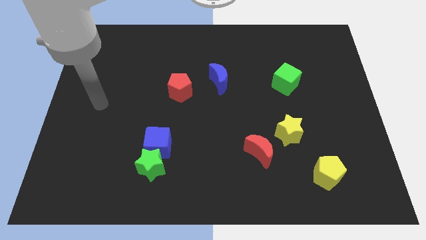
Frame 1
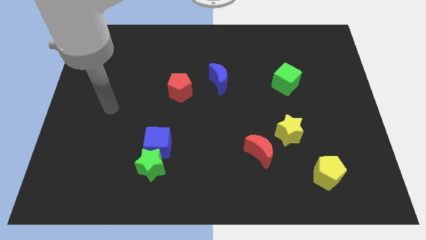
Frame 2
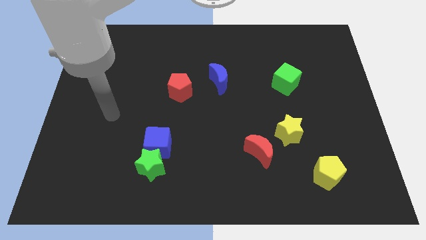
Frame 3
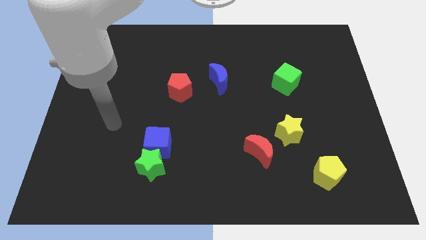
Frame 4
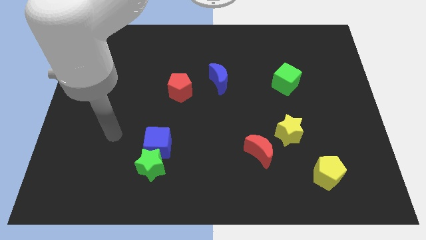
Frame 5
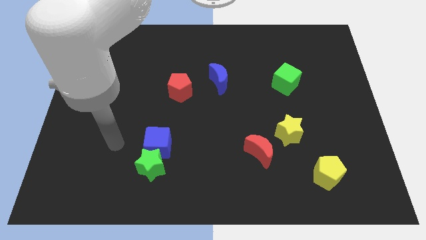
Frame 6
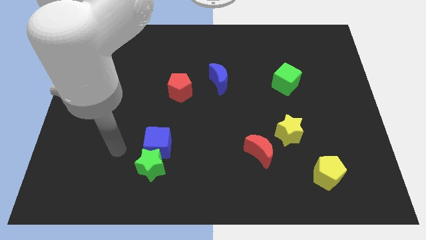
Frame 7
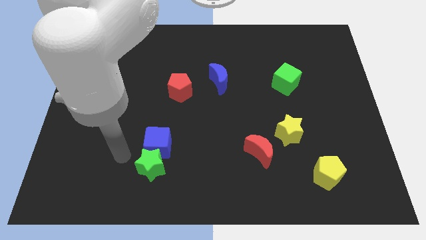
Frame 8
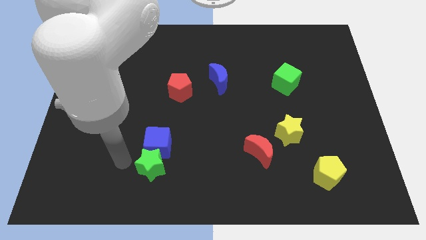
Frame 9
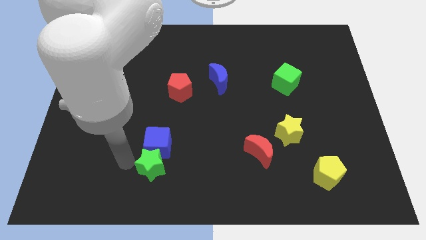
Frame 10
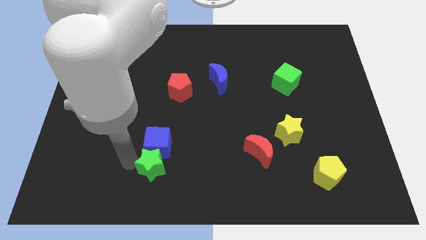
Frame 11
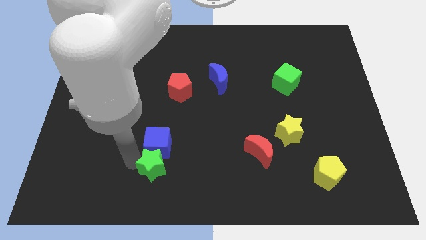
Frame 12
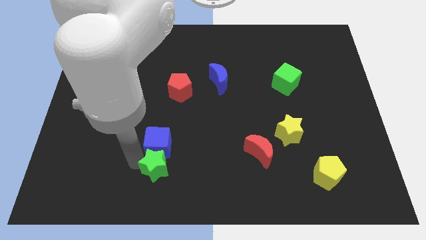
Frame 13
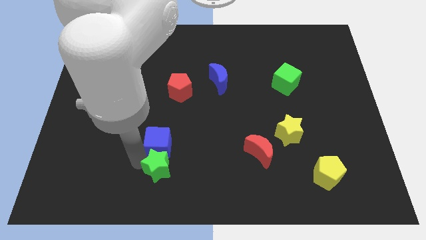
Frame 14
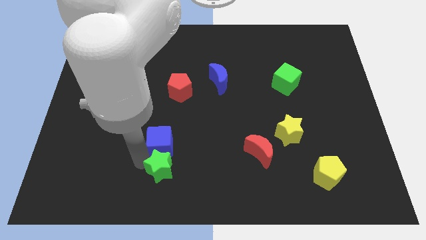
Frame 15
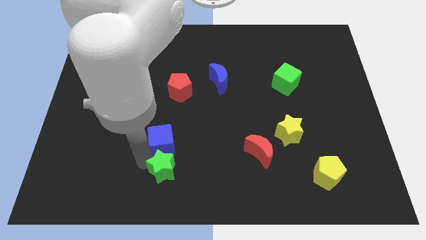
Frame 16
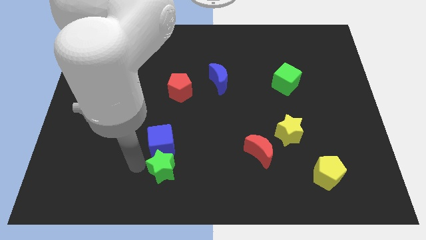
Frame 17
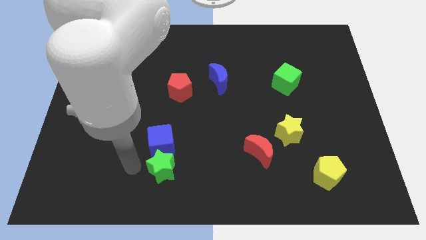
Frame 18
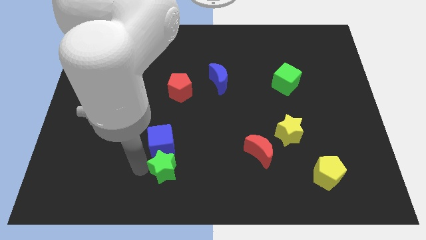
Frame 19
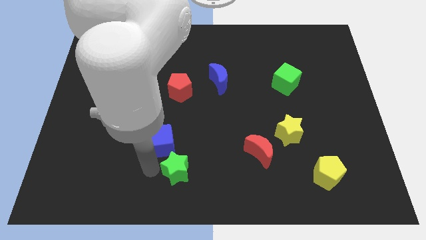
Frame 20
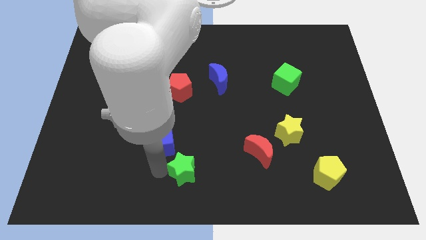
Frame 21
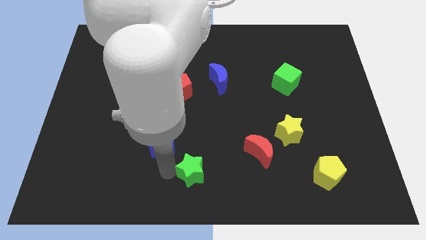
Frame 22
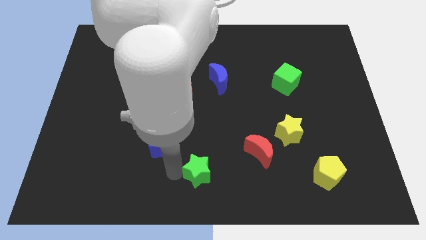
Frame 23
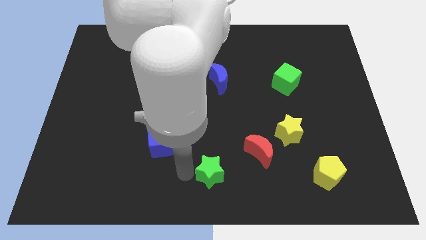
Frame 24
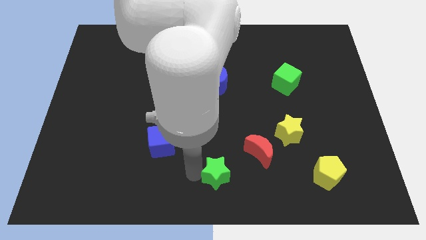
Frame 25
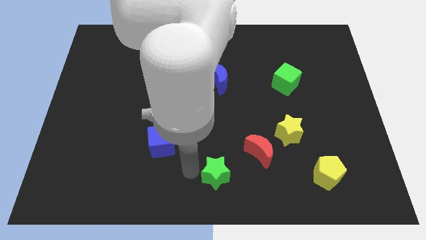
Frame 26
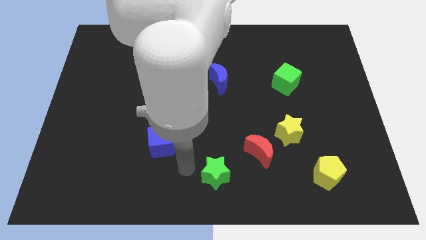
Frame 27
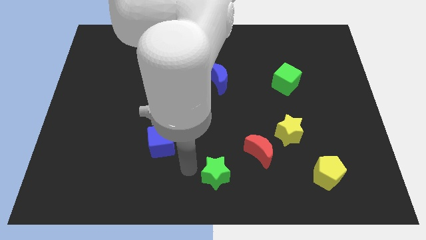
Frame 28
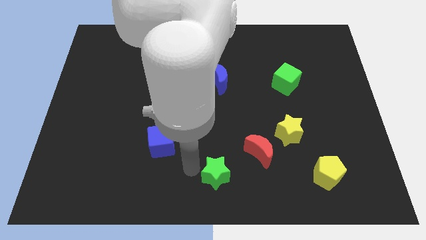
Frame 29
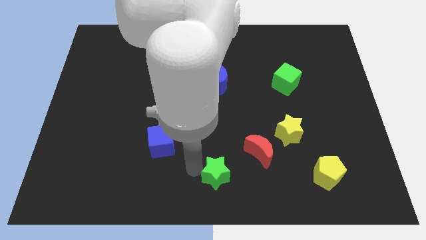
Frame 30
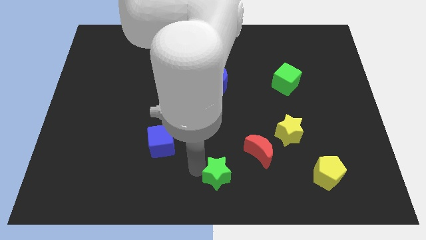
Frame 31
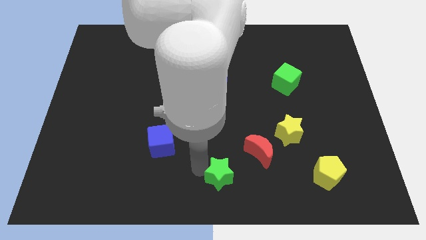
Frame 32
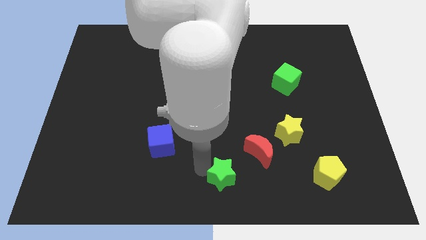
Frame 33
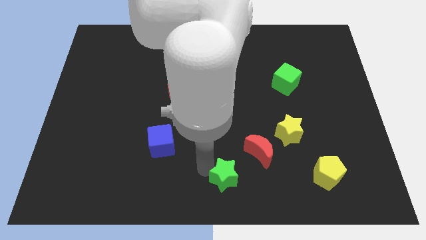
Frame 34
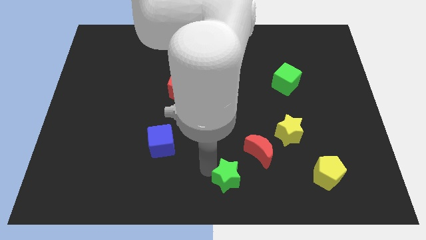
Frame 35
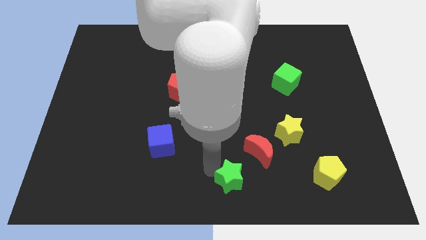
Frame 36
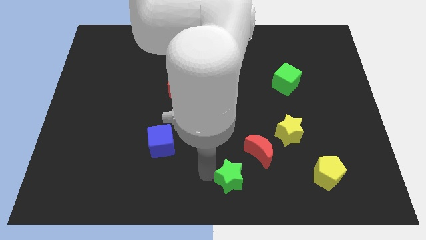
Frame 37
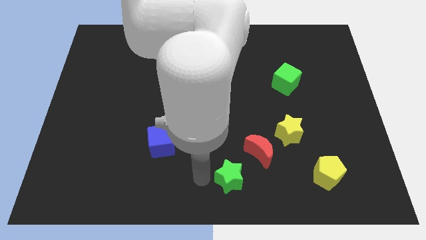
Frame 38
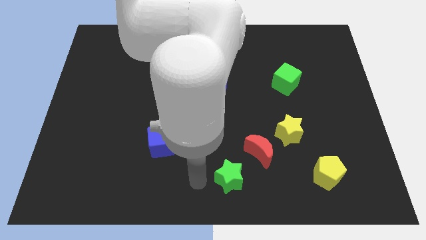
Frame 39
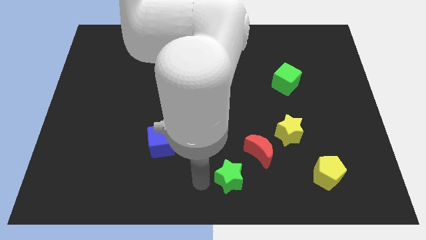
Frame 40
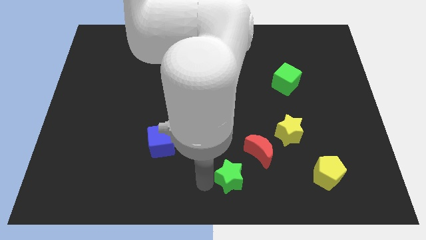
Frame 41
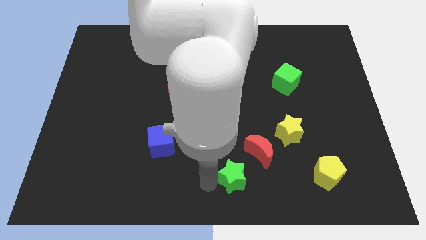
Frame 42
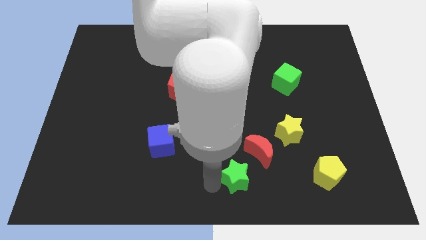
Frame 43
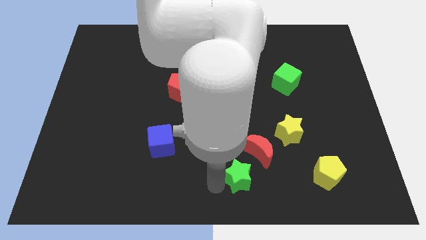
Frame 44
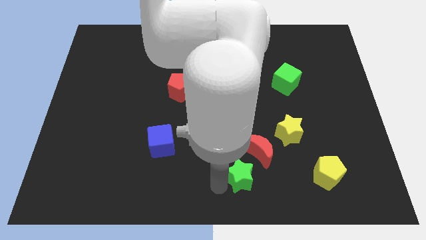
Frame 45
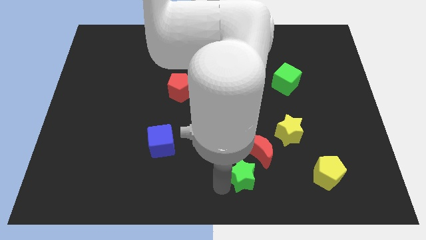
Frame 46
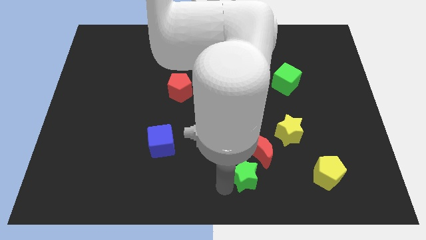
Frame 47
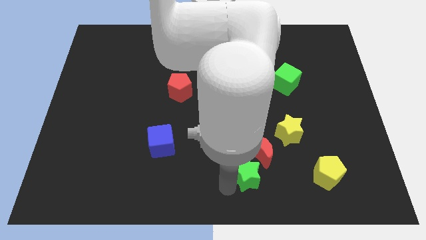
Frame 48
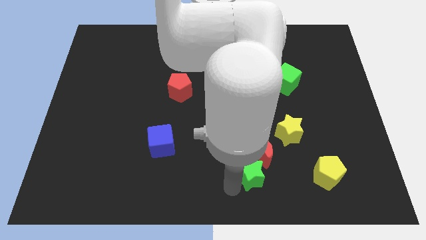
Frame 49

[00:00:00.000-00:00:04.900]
slide the green star to the right

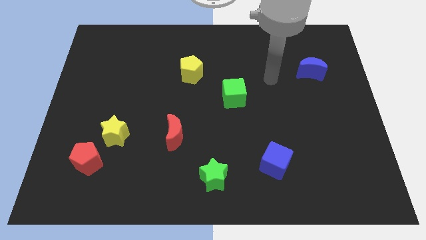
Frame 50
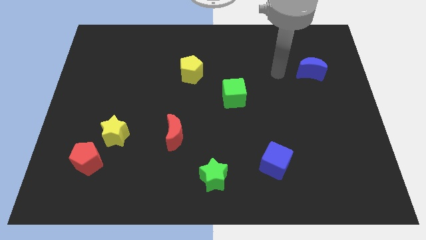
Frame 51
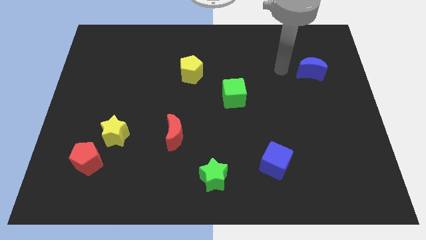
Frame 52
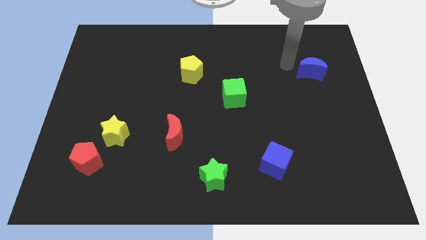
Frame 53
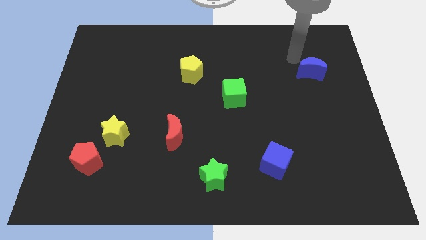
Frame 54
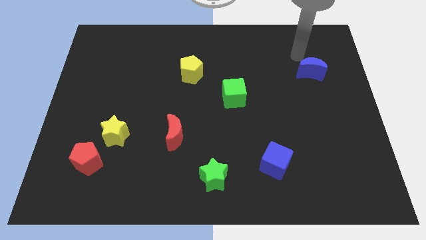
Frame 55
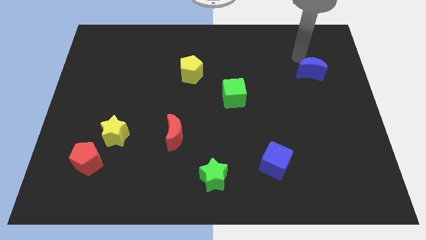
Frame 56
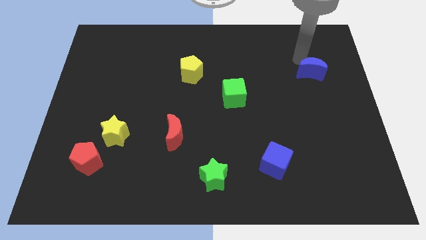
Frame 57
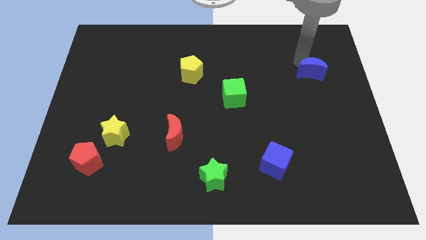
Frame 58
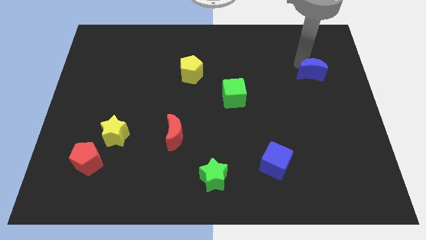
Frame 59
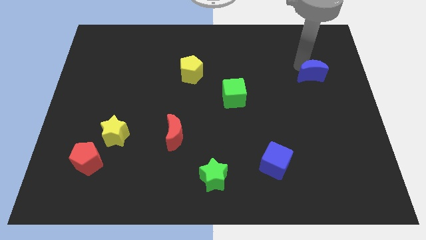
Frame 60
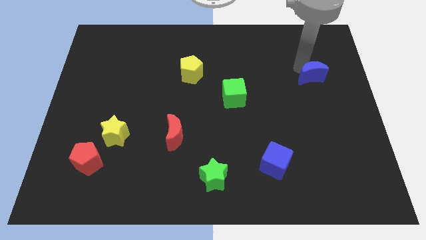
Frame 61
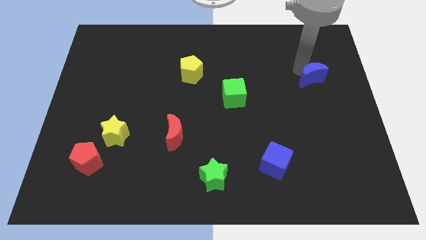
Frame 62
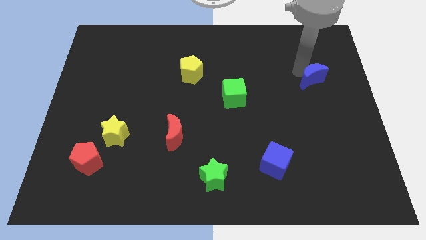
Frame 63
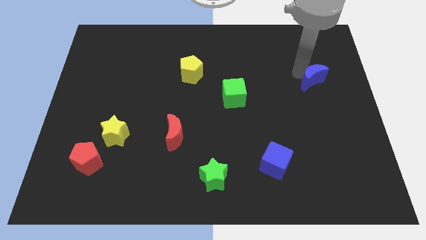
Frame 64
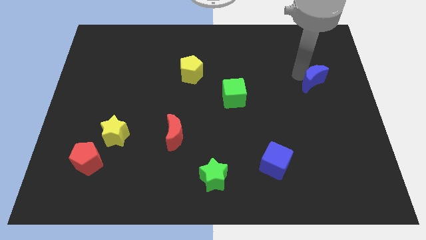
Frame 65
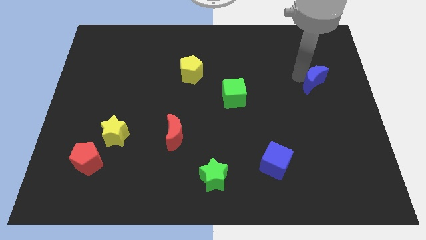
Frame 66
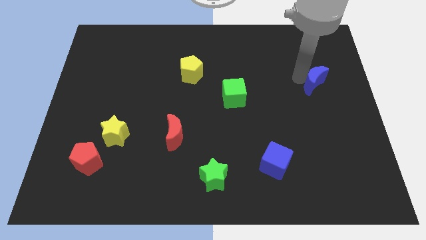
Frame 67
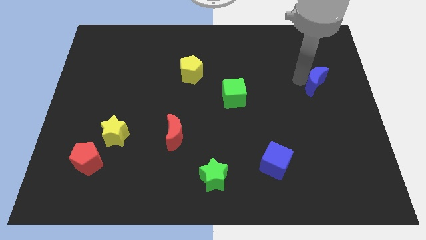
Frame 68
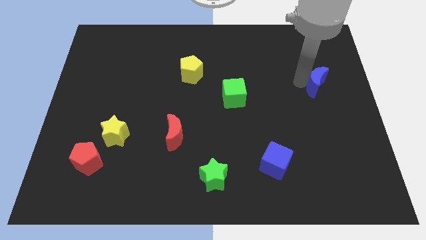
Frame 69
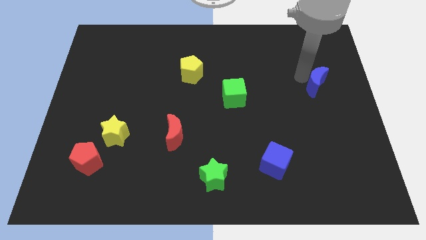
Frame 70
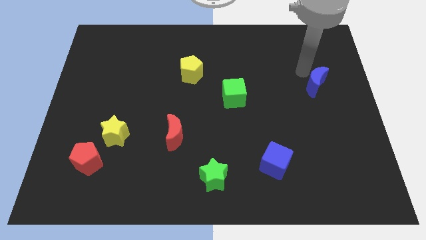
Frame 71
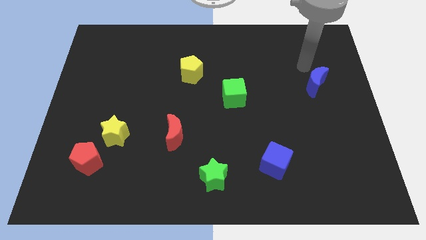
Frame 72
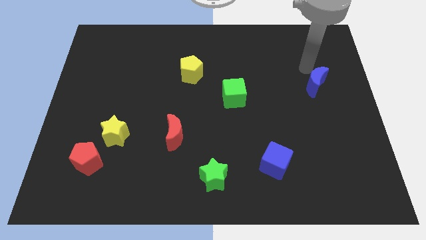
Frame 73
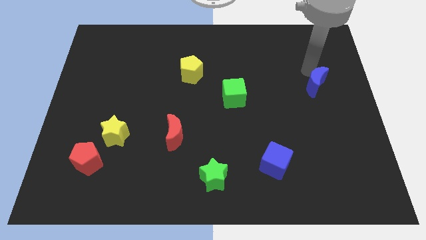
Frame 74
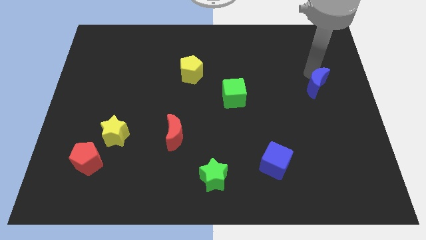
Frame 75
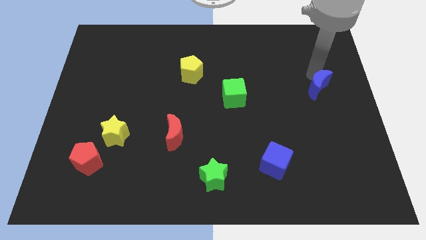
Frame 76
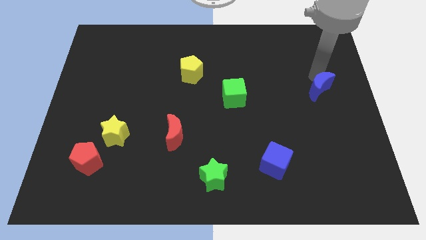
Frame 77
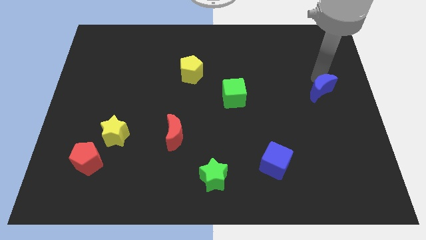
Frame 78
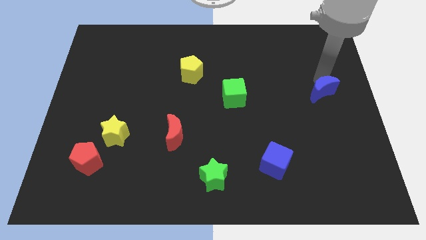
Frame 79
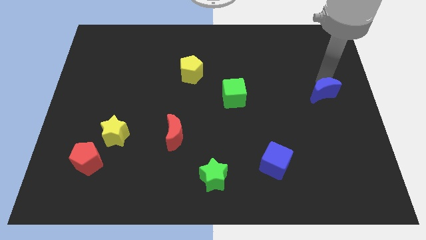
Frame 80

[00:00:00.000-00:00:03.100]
push the blue moon somewhat downwards

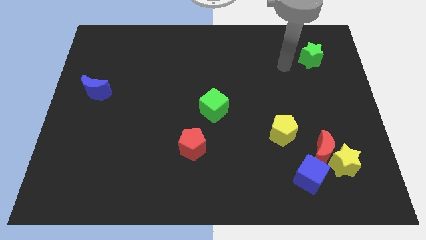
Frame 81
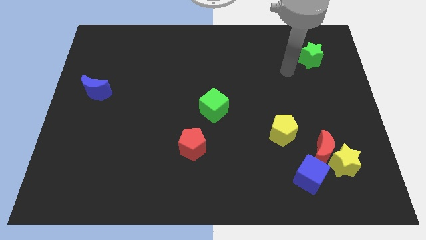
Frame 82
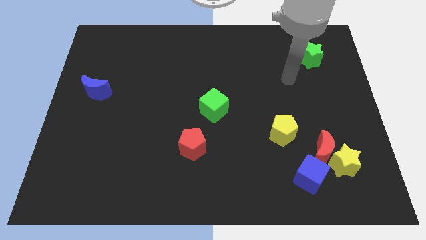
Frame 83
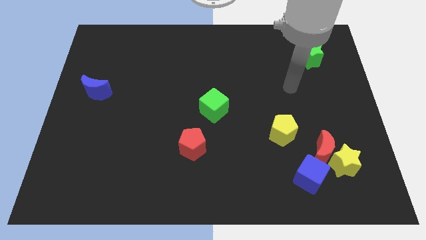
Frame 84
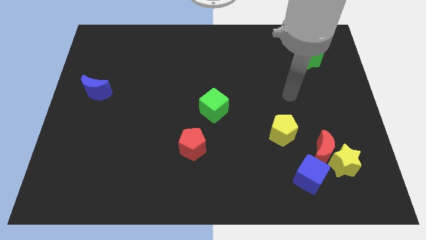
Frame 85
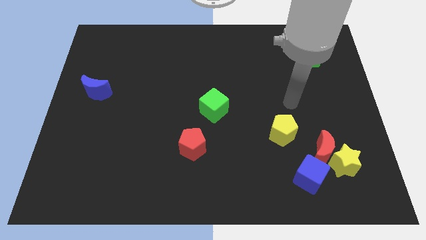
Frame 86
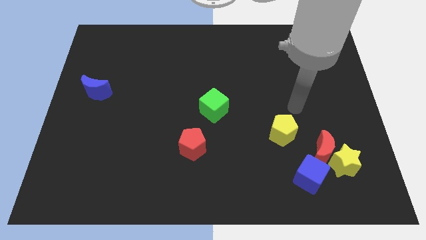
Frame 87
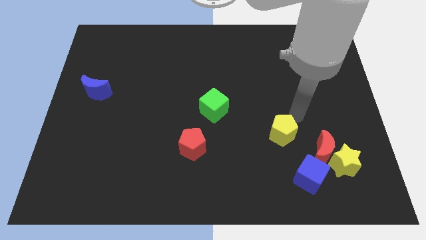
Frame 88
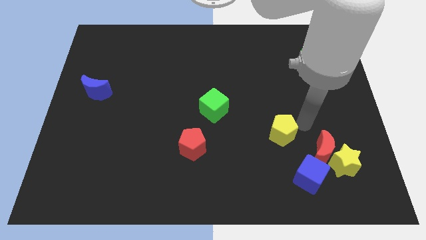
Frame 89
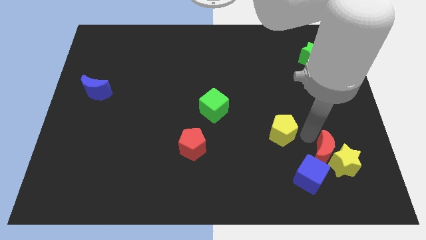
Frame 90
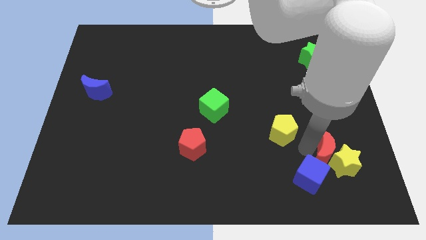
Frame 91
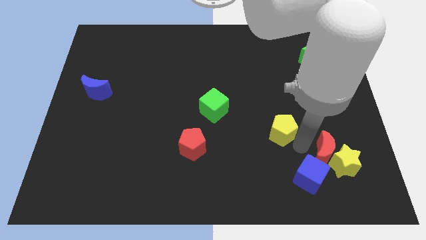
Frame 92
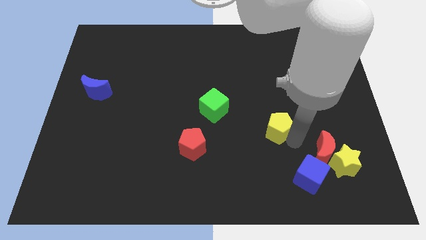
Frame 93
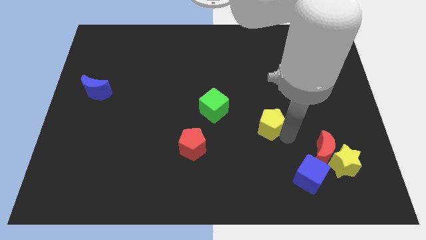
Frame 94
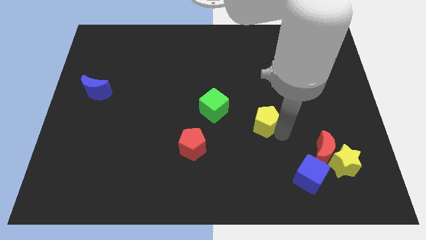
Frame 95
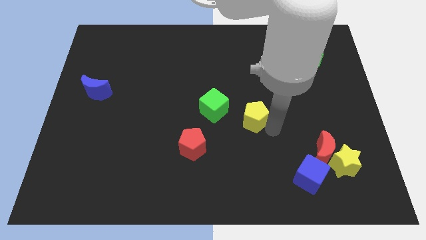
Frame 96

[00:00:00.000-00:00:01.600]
push the yellow pentagon up and to the left a bit
